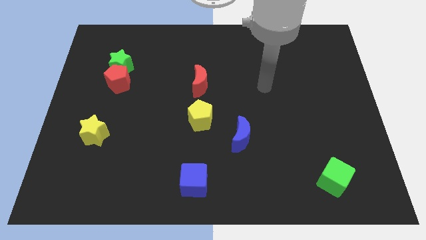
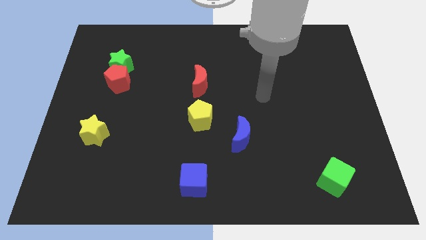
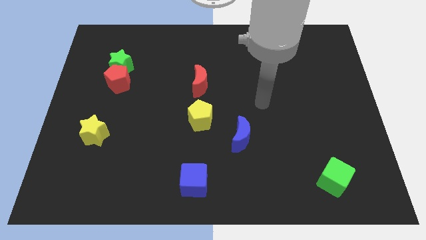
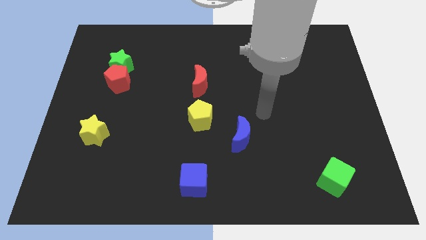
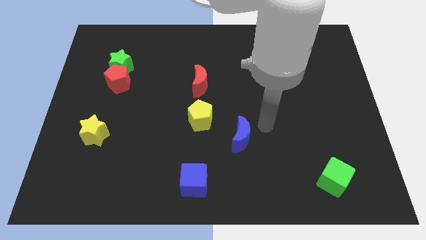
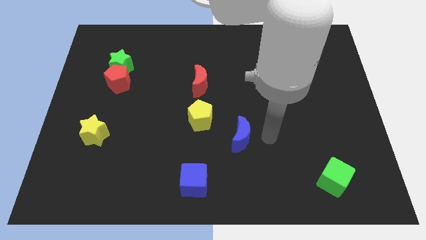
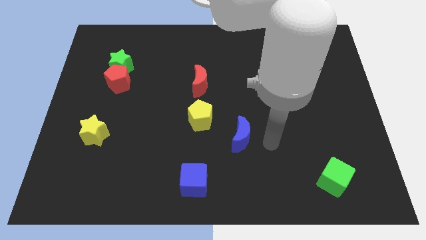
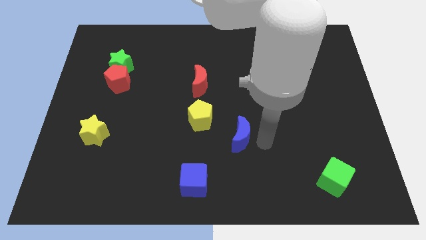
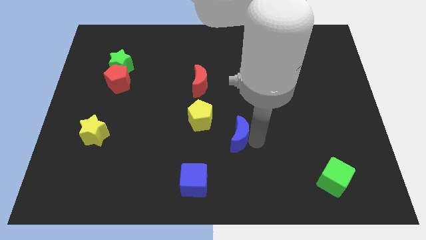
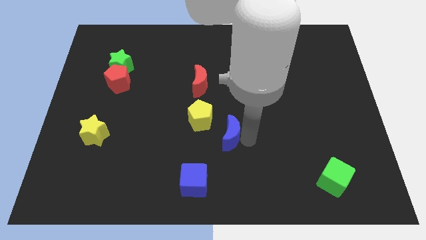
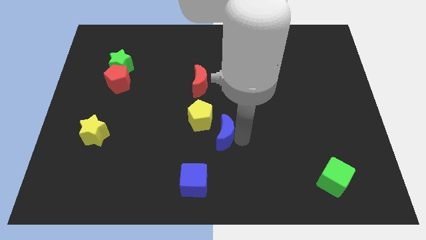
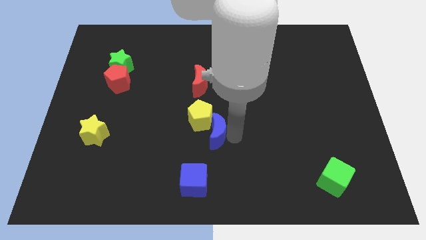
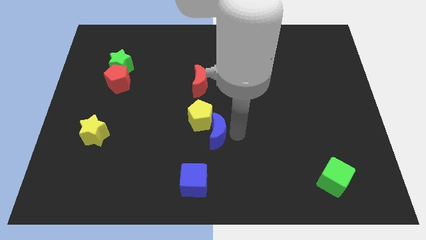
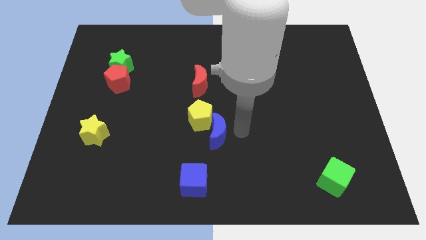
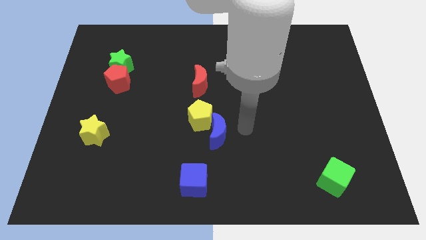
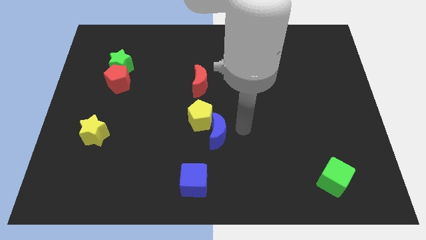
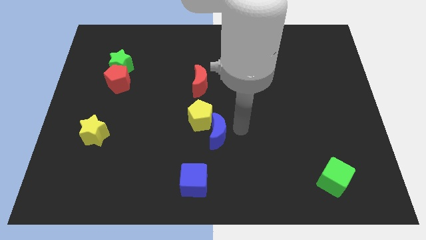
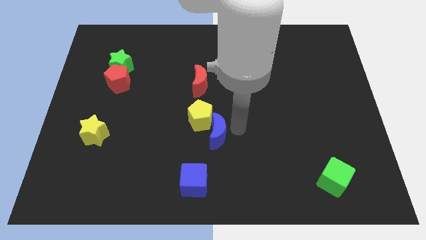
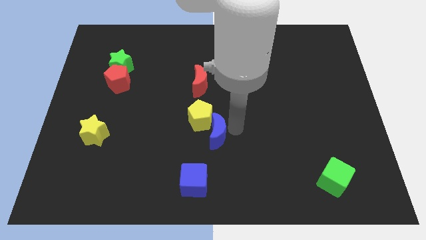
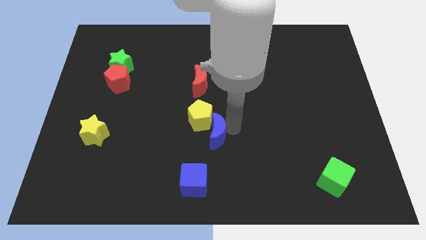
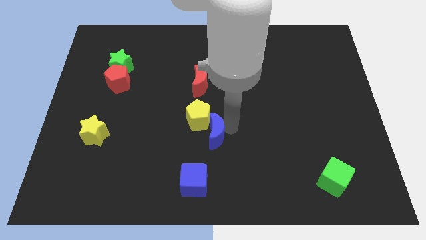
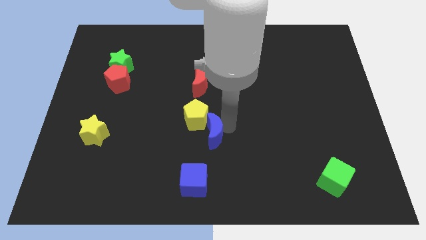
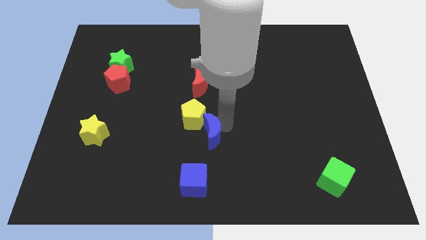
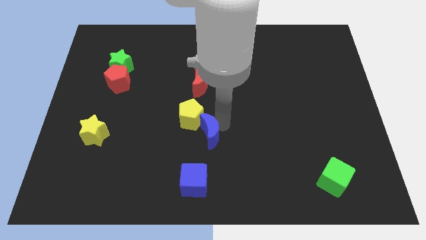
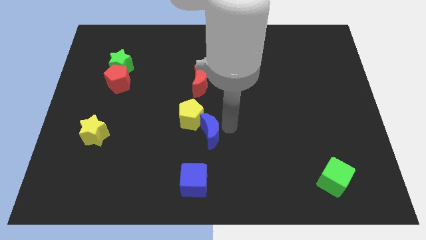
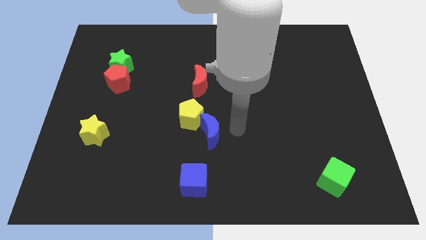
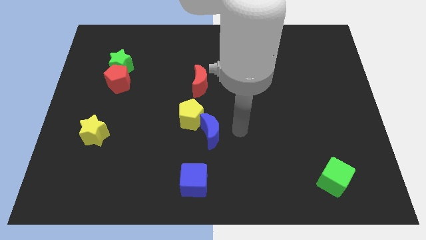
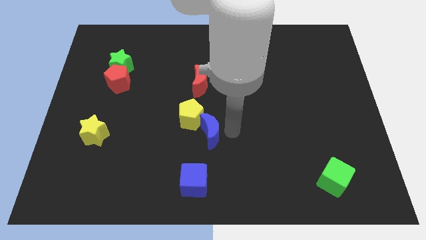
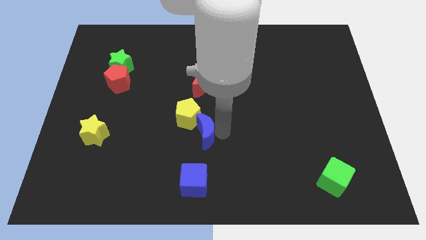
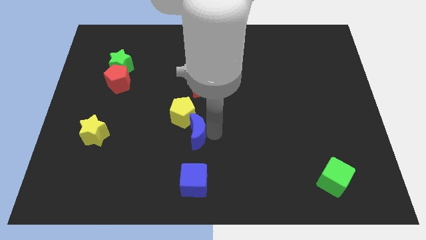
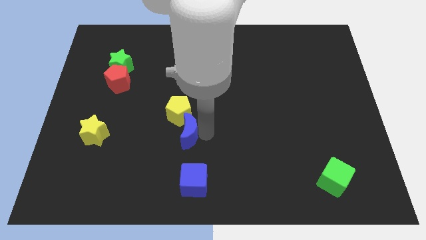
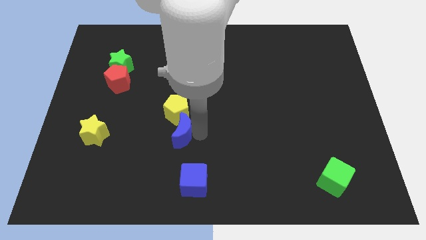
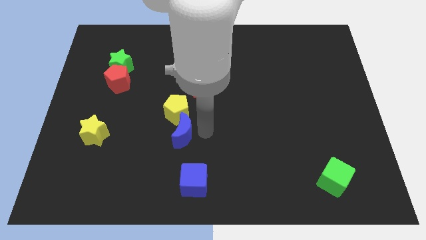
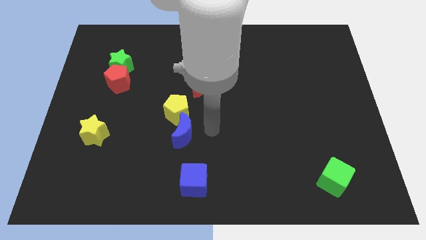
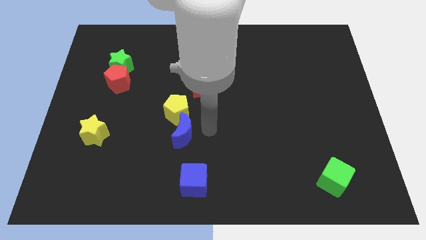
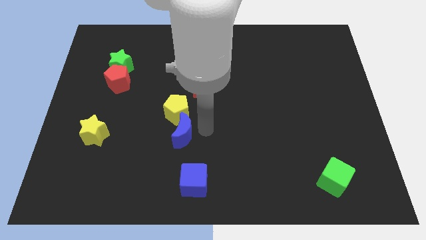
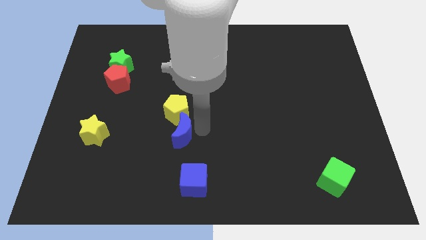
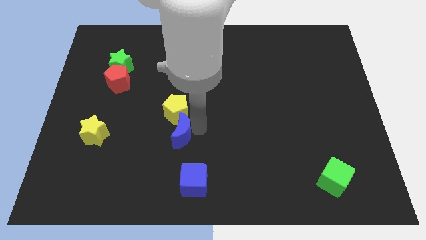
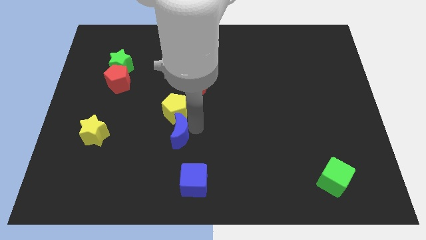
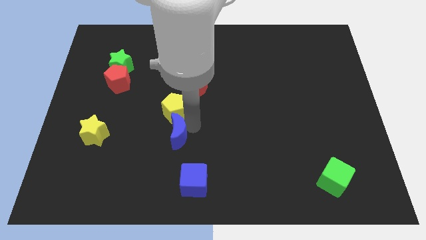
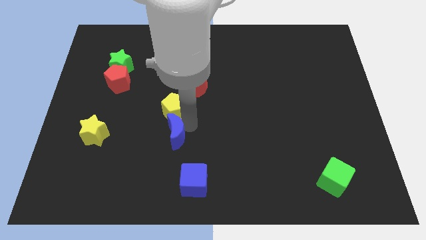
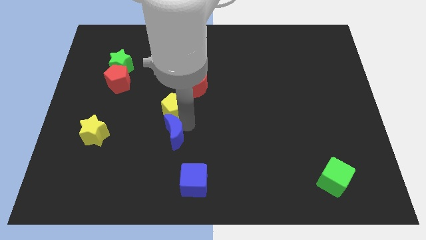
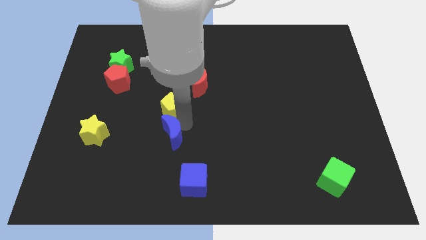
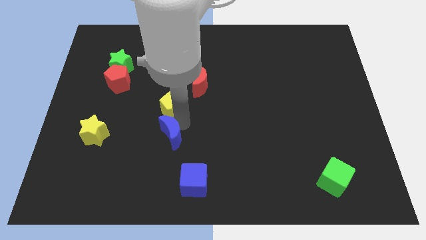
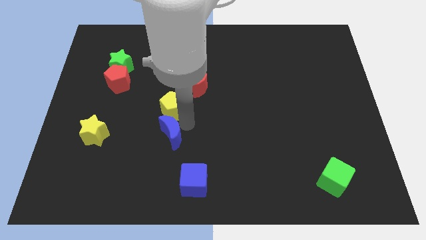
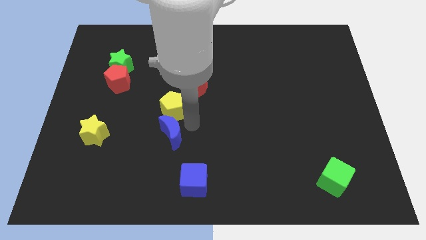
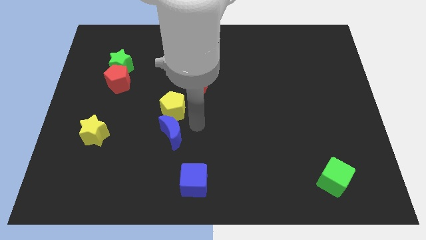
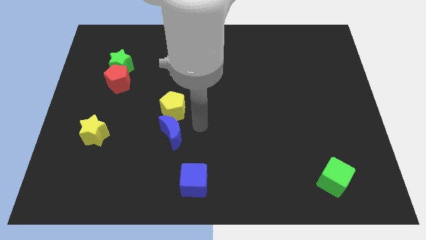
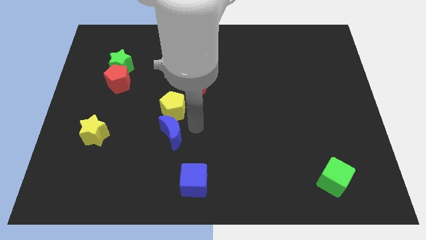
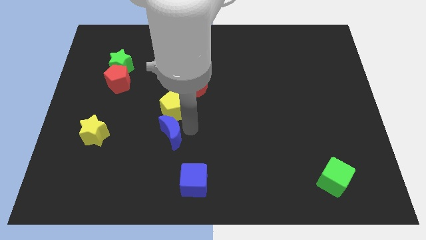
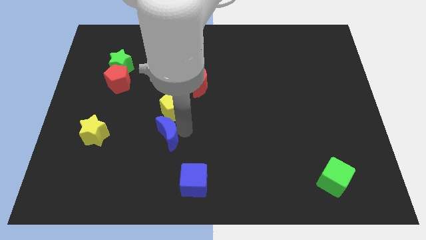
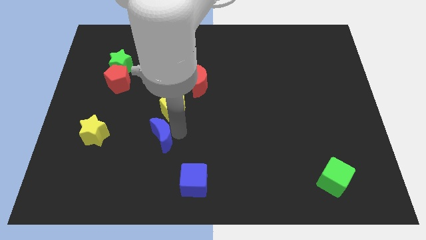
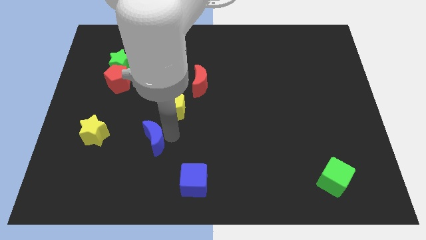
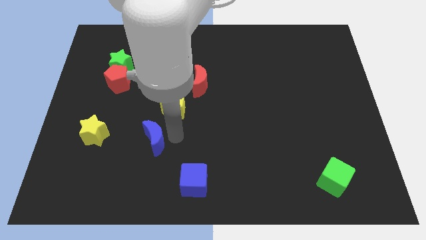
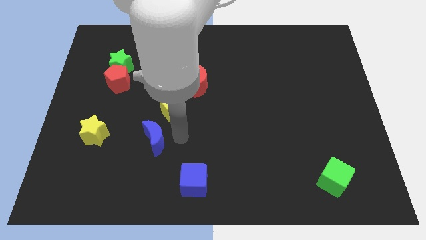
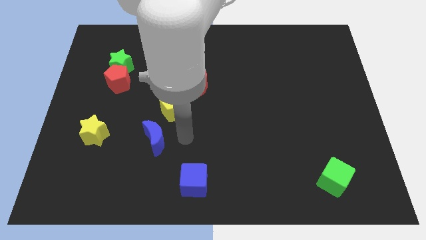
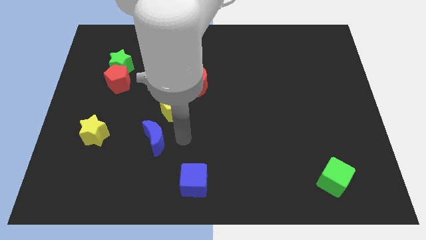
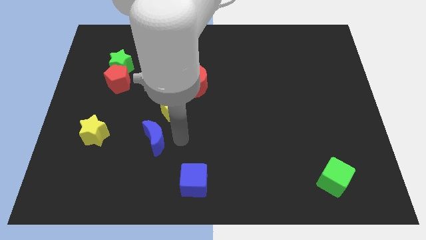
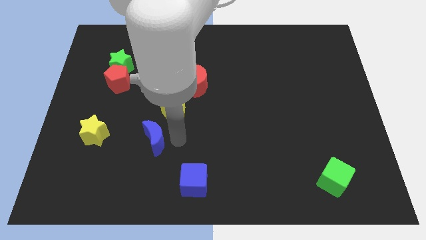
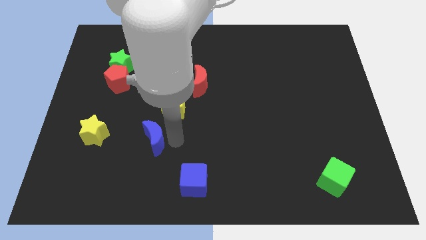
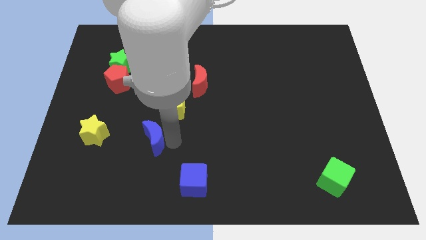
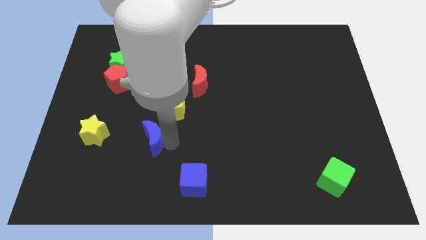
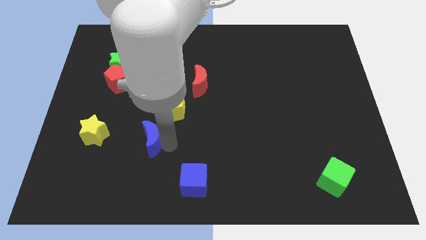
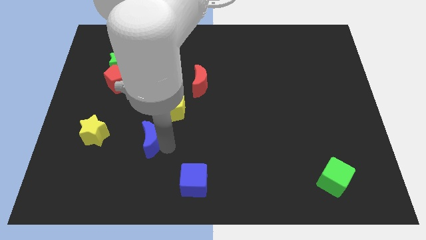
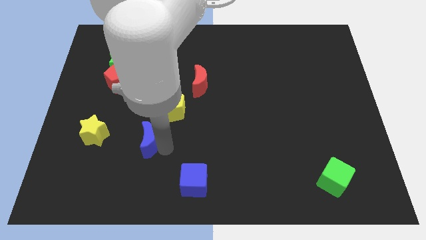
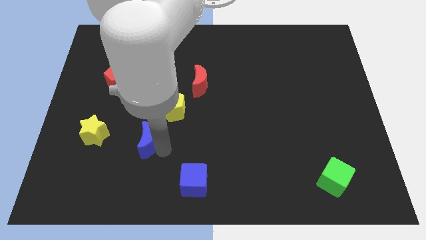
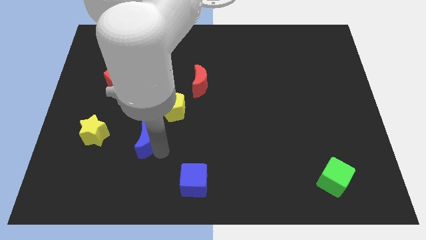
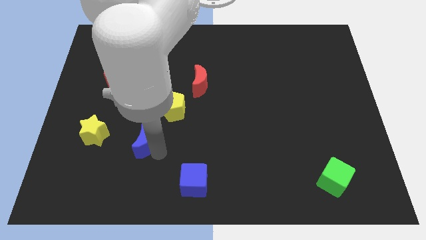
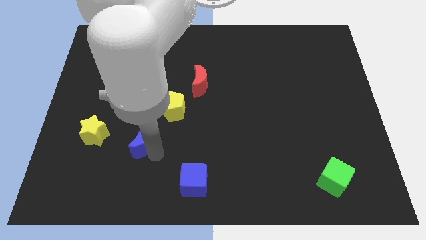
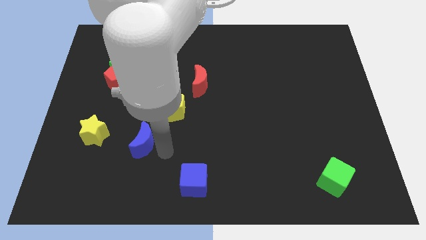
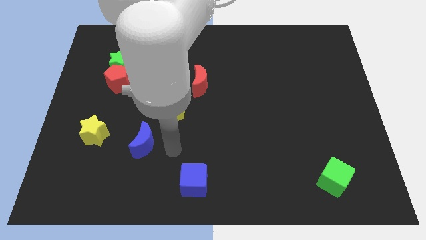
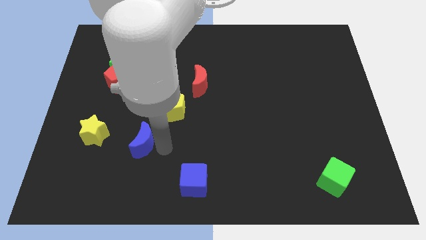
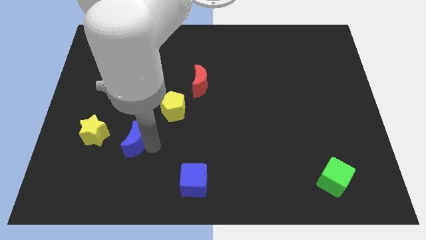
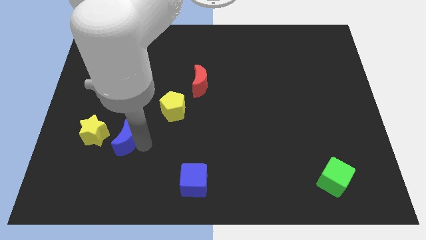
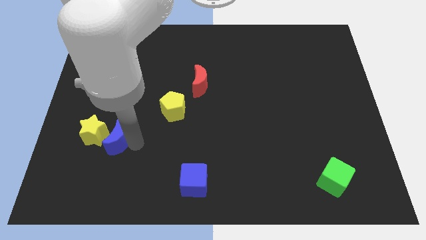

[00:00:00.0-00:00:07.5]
put the blue moon next to the yellow star
